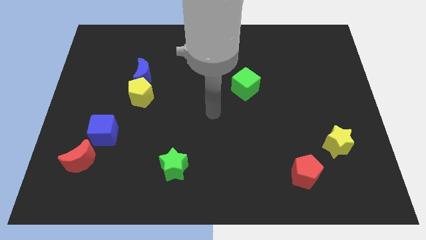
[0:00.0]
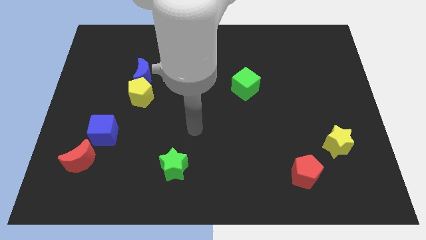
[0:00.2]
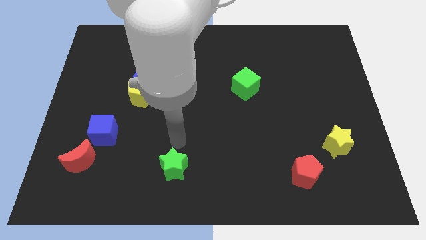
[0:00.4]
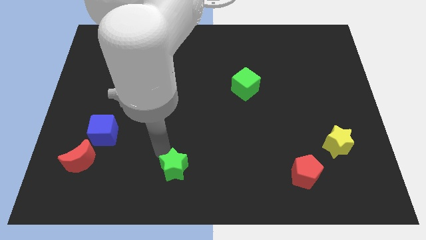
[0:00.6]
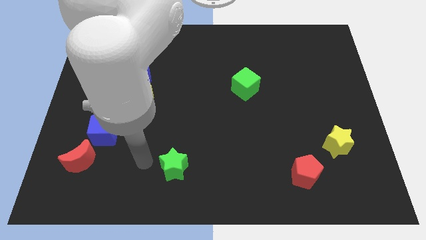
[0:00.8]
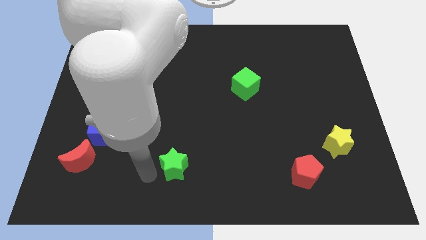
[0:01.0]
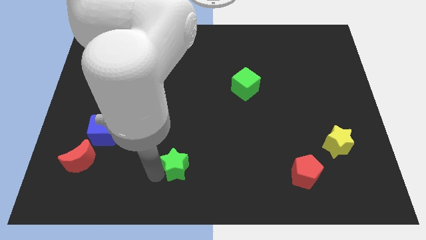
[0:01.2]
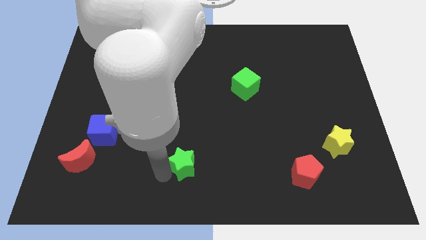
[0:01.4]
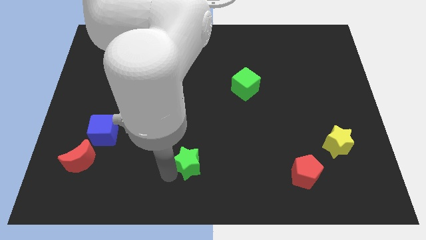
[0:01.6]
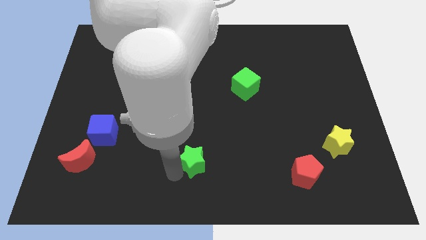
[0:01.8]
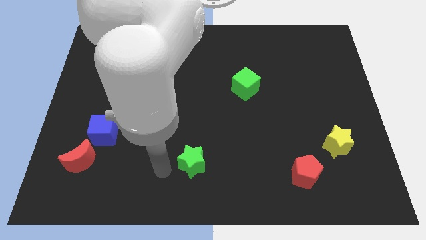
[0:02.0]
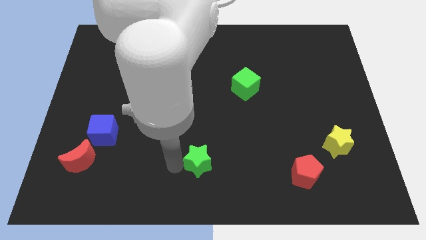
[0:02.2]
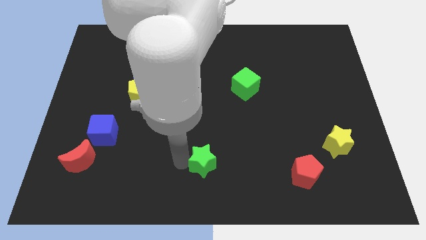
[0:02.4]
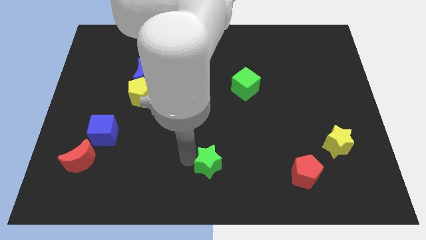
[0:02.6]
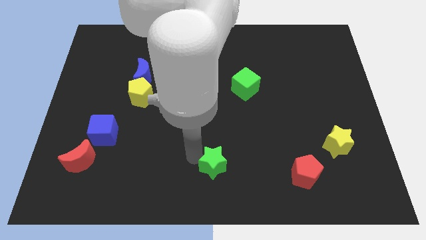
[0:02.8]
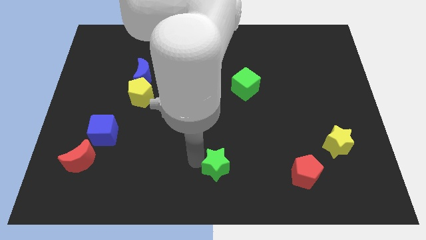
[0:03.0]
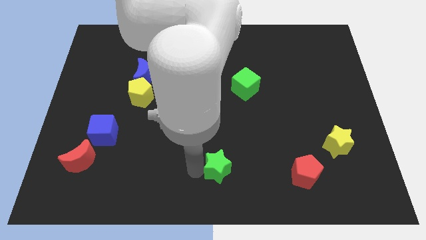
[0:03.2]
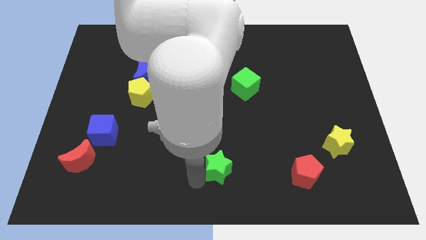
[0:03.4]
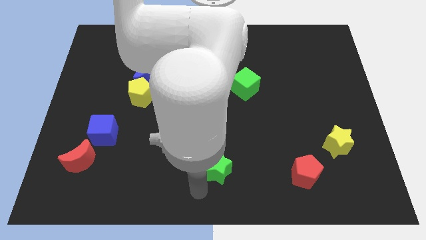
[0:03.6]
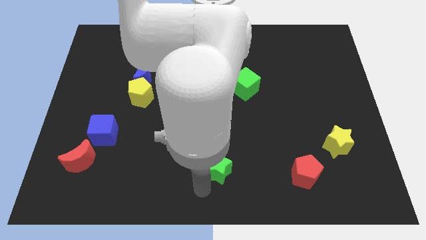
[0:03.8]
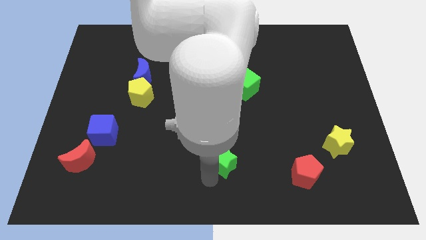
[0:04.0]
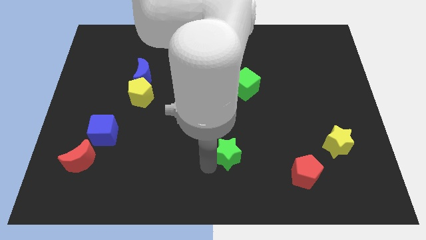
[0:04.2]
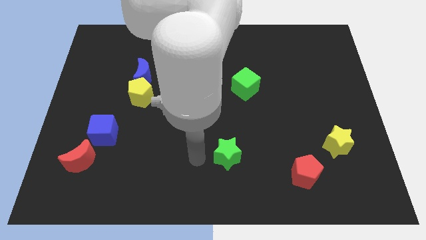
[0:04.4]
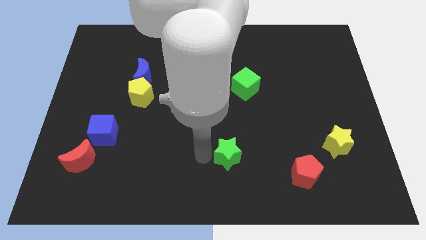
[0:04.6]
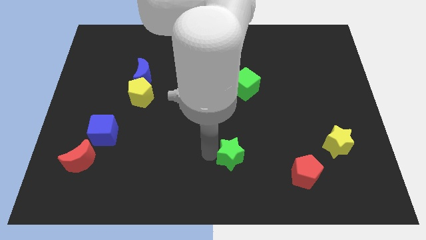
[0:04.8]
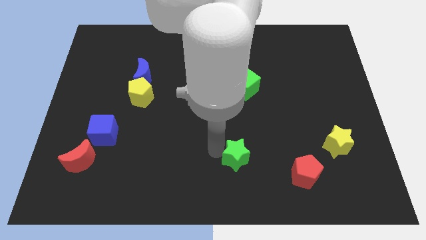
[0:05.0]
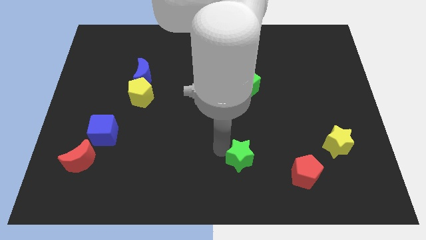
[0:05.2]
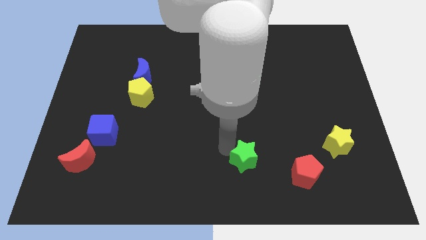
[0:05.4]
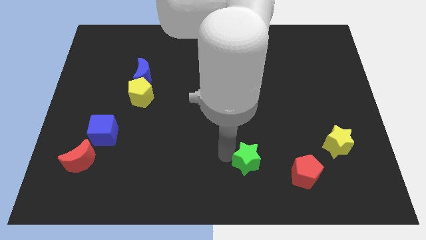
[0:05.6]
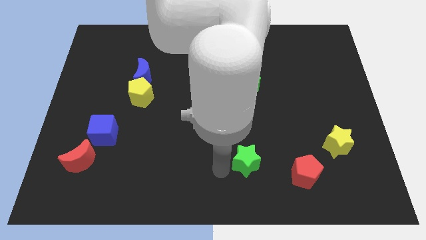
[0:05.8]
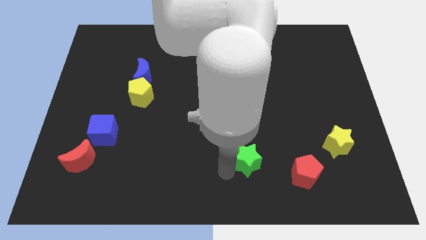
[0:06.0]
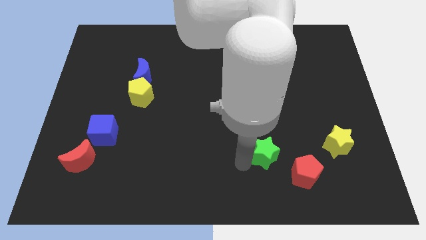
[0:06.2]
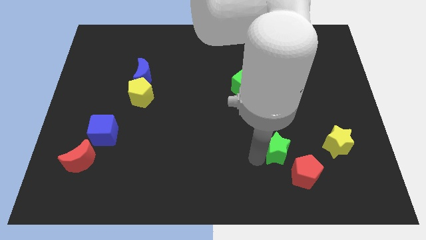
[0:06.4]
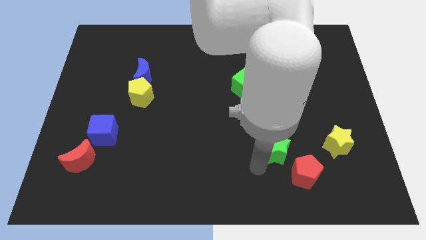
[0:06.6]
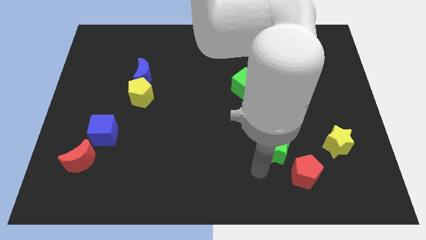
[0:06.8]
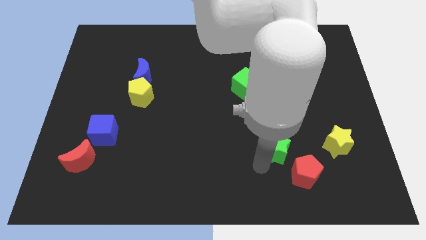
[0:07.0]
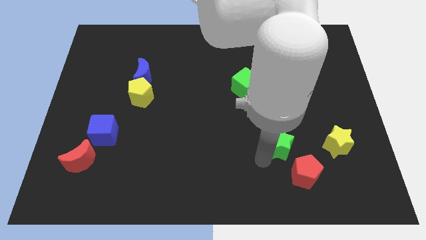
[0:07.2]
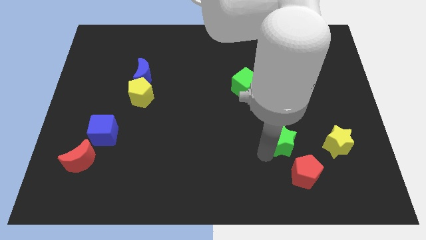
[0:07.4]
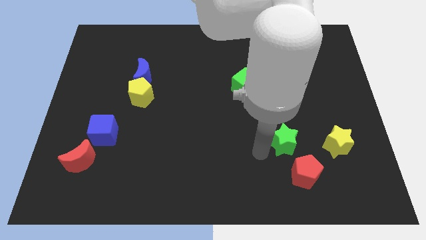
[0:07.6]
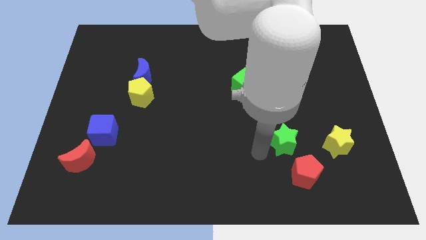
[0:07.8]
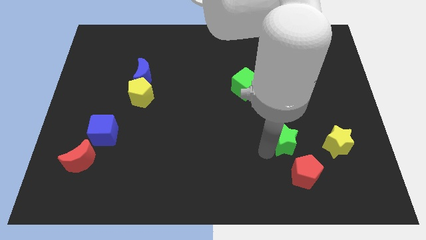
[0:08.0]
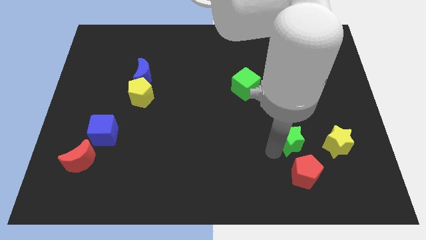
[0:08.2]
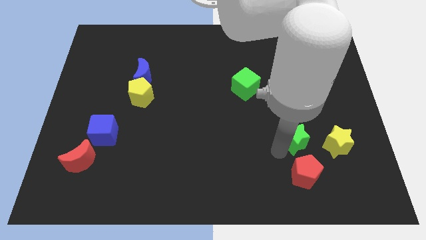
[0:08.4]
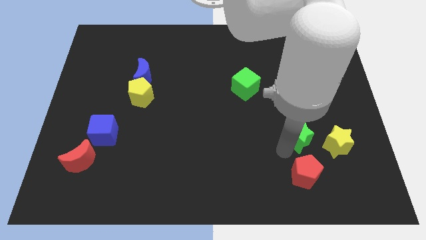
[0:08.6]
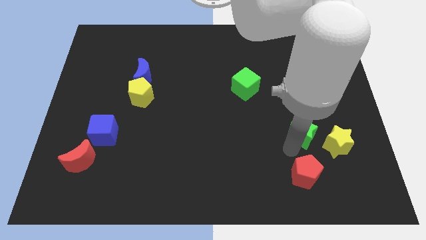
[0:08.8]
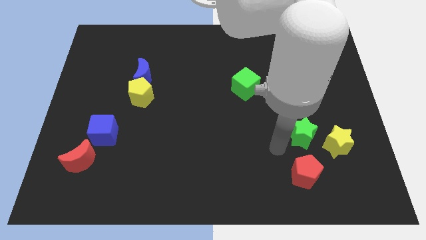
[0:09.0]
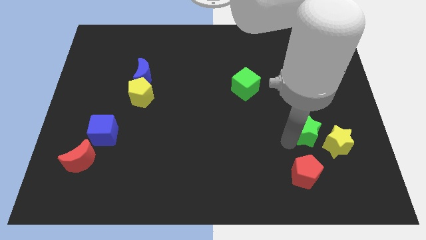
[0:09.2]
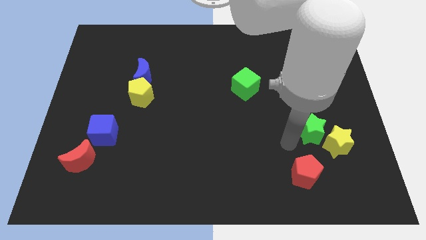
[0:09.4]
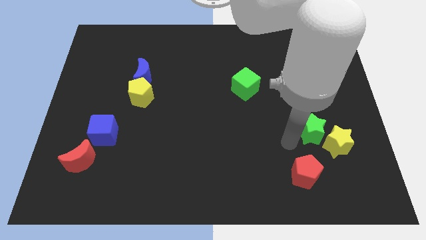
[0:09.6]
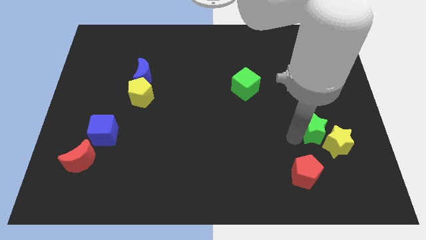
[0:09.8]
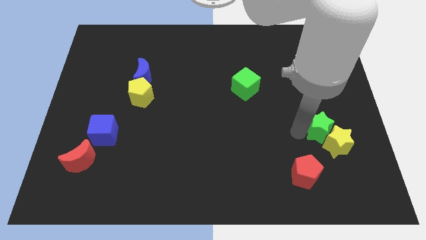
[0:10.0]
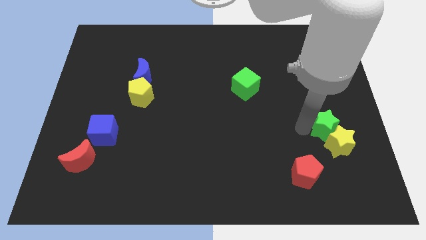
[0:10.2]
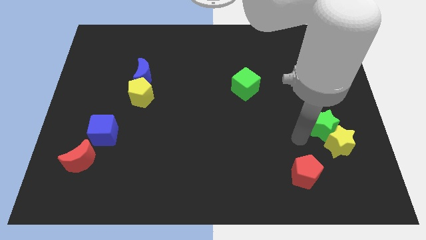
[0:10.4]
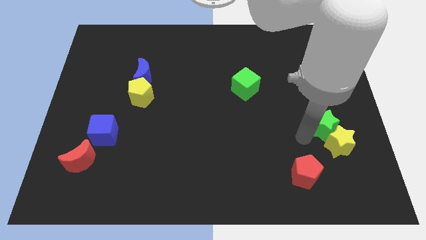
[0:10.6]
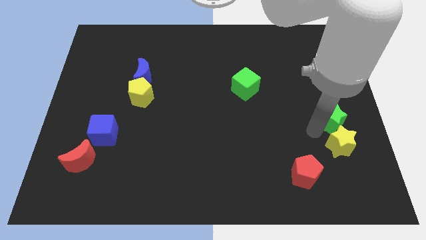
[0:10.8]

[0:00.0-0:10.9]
slide the green star to the center right

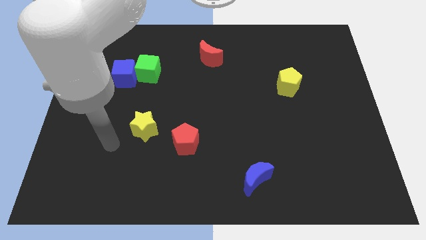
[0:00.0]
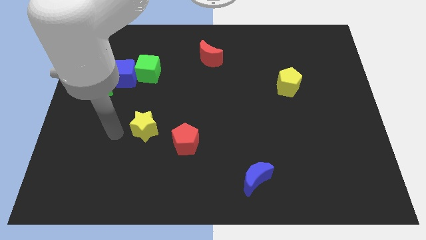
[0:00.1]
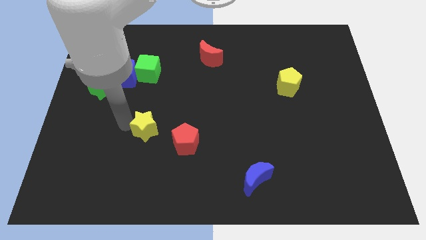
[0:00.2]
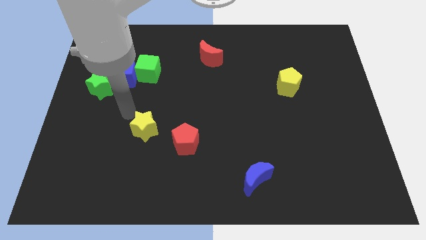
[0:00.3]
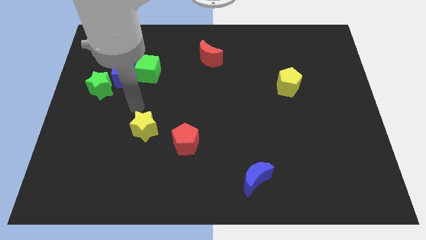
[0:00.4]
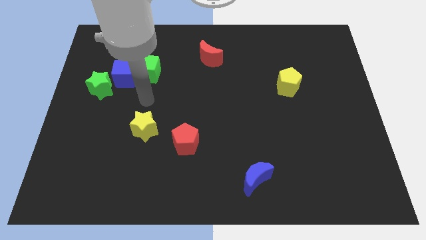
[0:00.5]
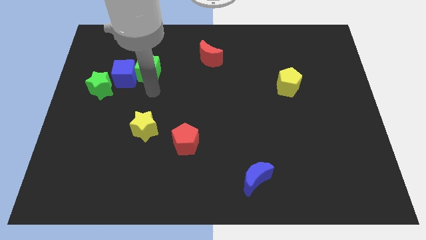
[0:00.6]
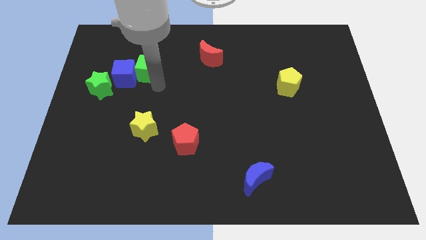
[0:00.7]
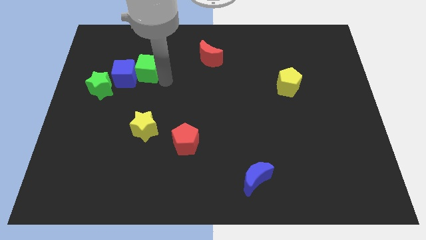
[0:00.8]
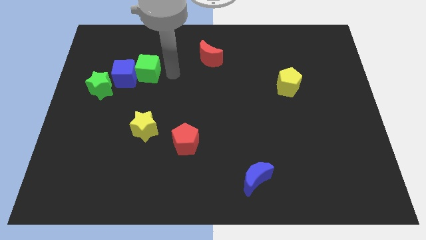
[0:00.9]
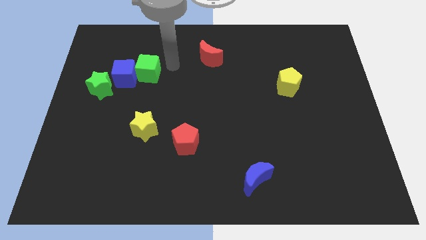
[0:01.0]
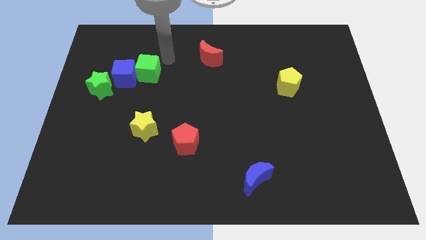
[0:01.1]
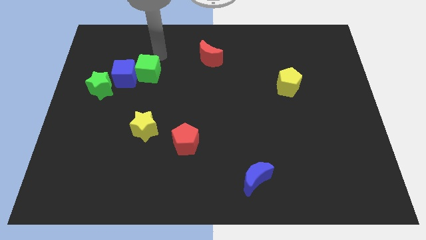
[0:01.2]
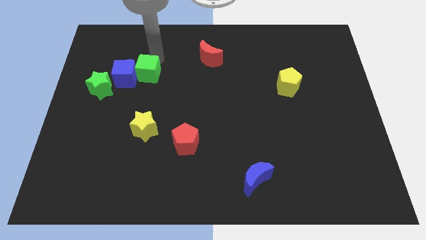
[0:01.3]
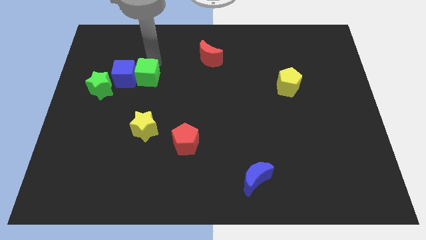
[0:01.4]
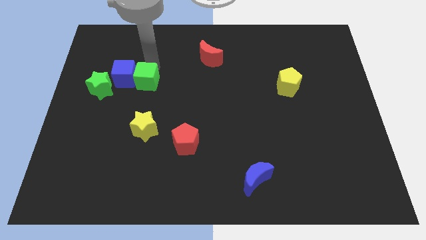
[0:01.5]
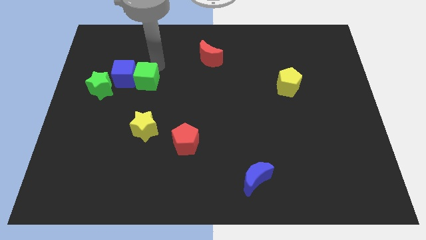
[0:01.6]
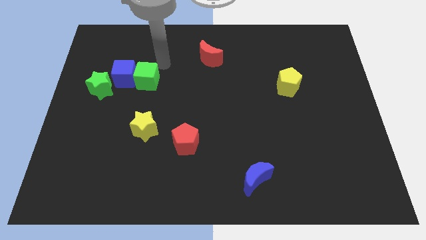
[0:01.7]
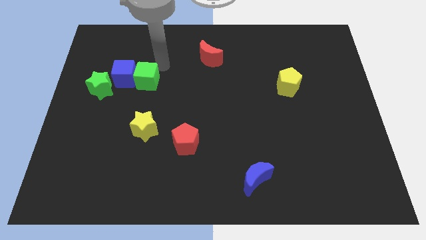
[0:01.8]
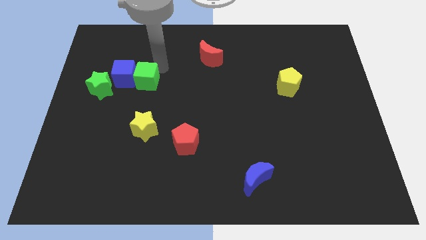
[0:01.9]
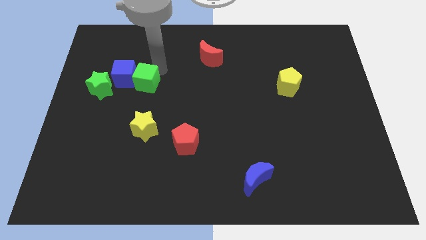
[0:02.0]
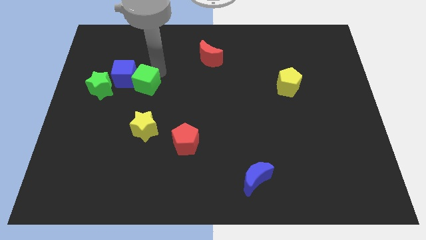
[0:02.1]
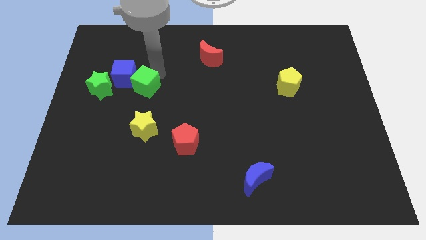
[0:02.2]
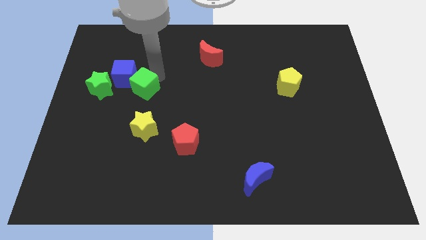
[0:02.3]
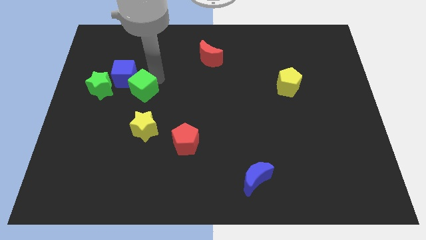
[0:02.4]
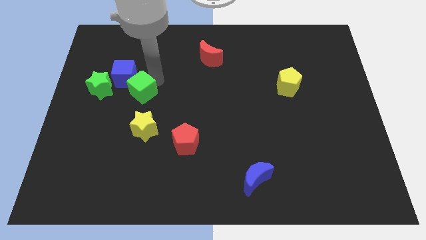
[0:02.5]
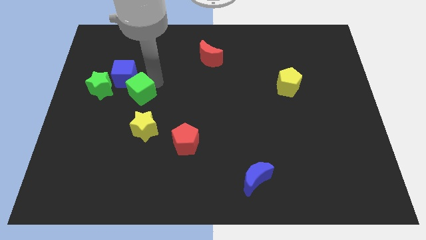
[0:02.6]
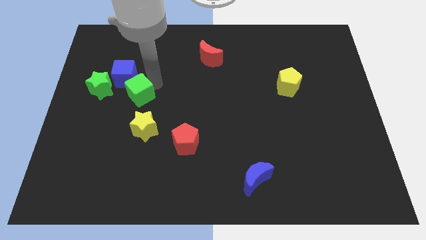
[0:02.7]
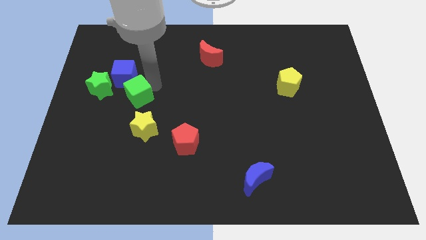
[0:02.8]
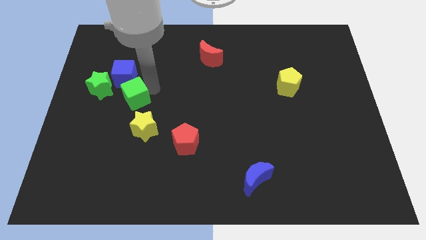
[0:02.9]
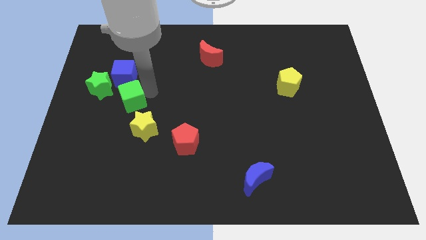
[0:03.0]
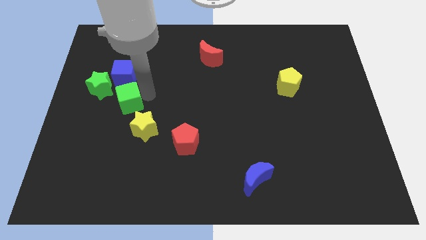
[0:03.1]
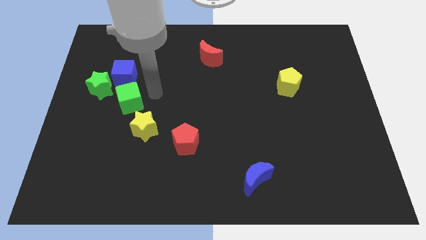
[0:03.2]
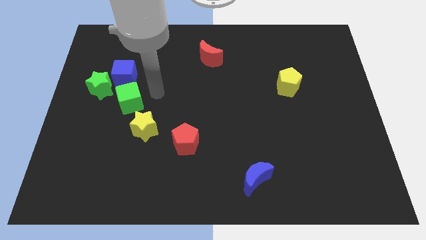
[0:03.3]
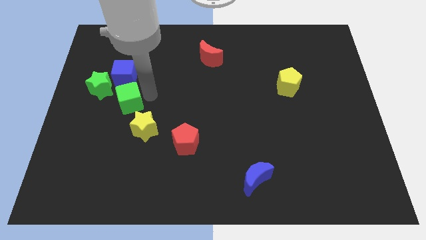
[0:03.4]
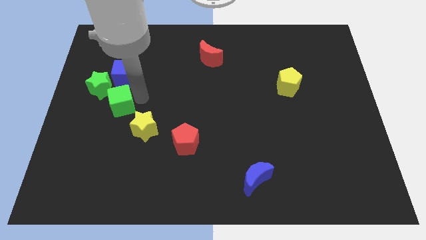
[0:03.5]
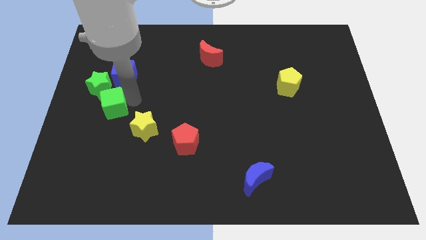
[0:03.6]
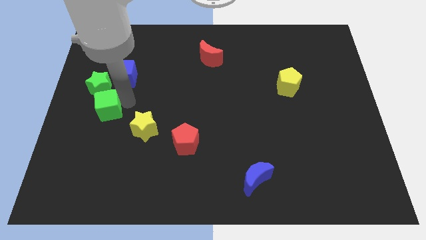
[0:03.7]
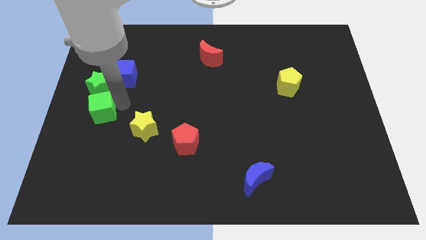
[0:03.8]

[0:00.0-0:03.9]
move the green cube to the left side of the board
